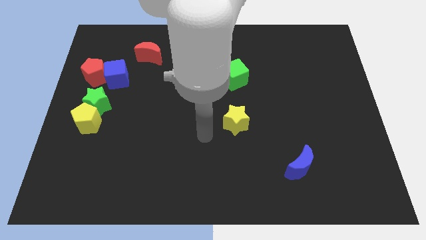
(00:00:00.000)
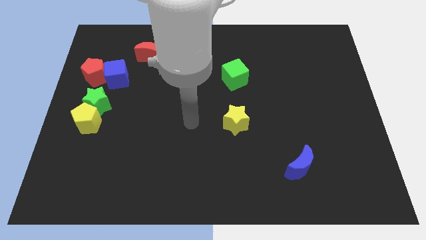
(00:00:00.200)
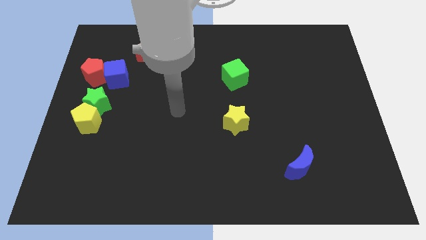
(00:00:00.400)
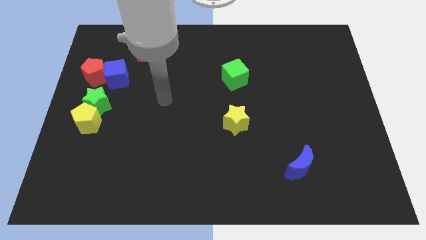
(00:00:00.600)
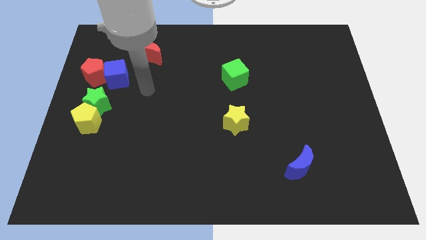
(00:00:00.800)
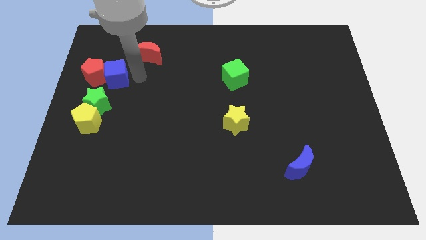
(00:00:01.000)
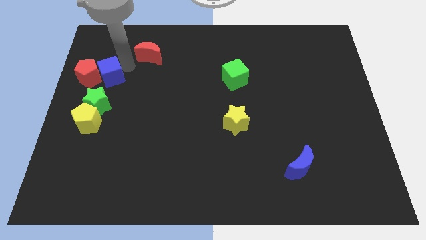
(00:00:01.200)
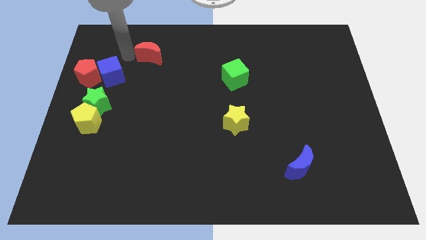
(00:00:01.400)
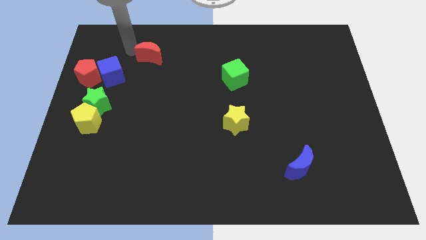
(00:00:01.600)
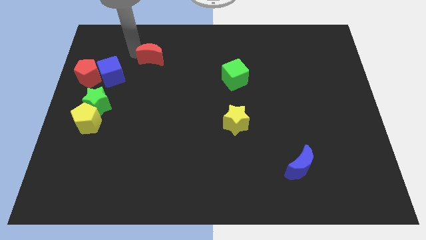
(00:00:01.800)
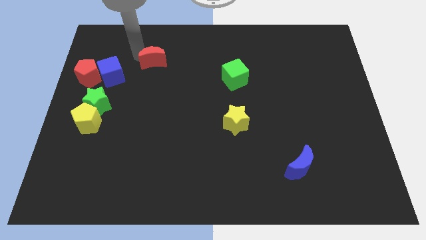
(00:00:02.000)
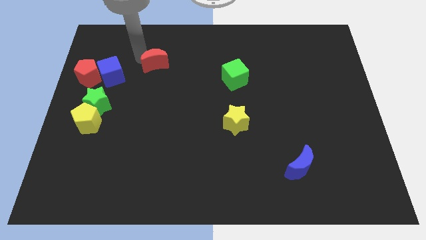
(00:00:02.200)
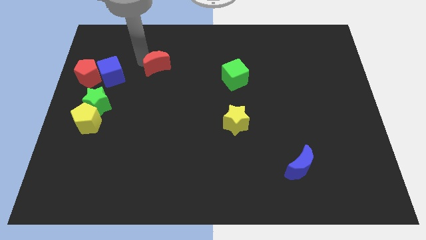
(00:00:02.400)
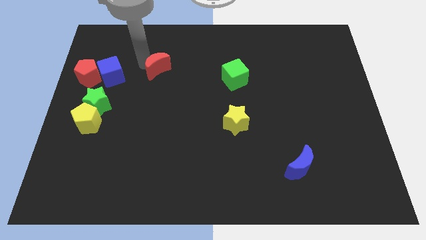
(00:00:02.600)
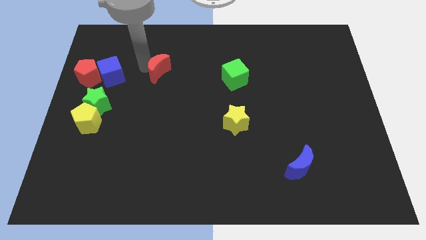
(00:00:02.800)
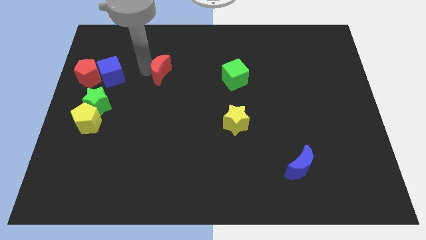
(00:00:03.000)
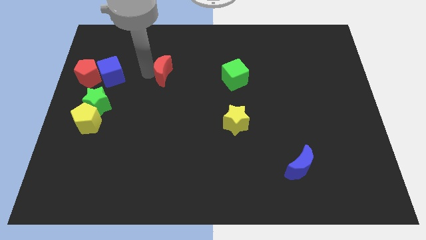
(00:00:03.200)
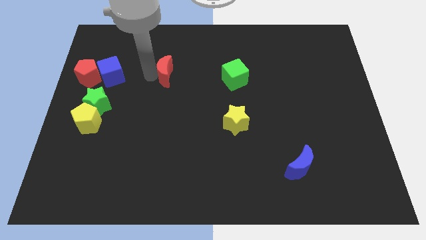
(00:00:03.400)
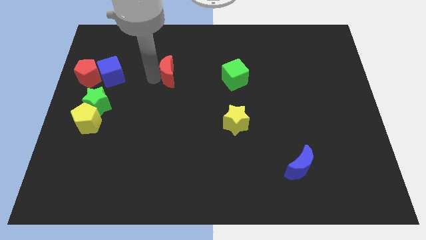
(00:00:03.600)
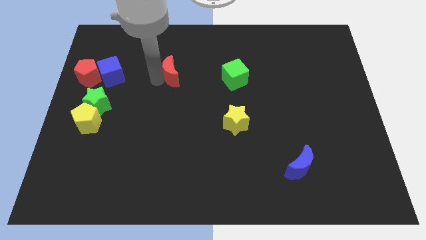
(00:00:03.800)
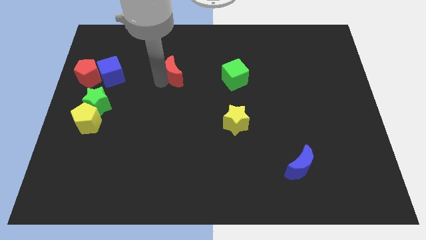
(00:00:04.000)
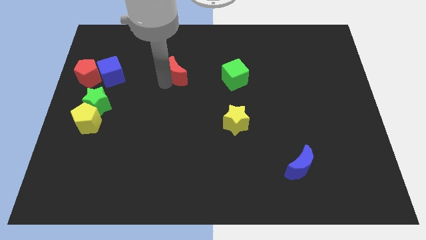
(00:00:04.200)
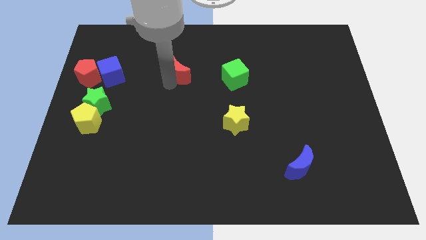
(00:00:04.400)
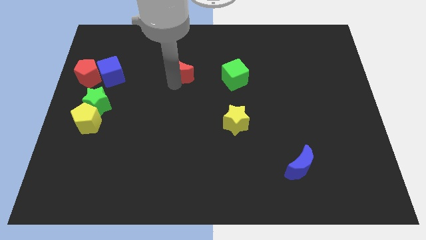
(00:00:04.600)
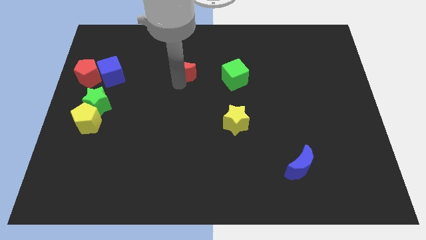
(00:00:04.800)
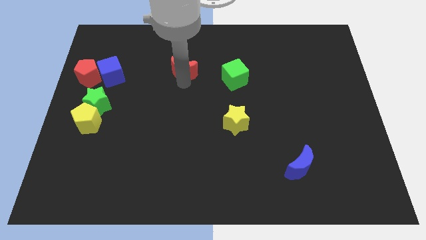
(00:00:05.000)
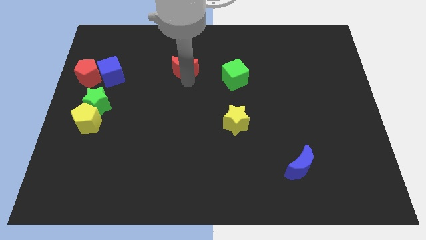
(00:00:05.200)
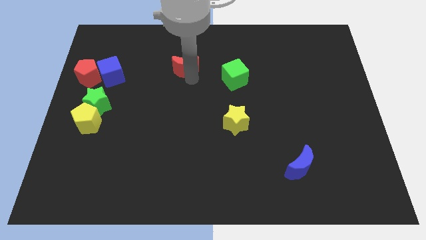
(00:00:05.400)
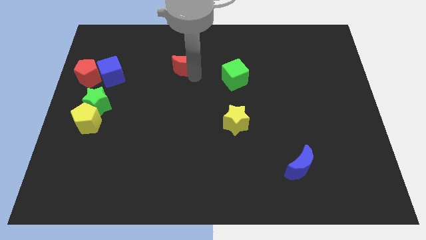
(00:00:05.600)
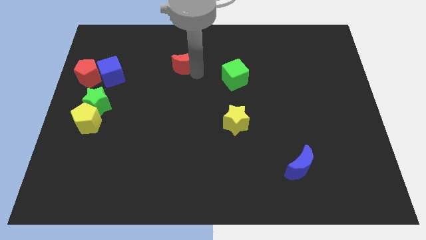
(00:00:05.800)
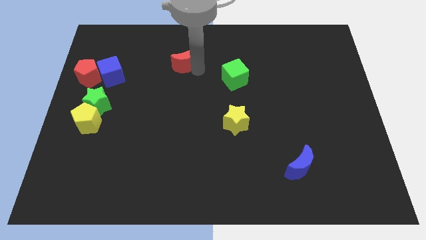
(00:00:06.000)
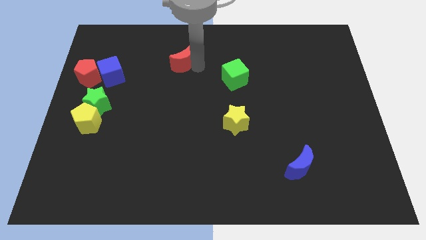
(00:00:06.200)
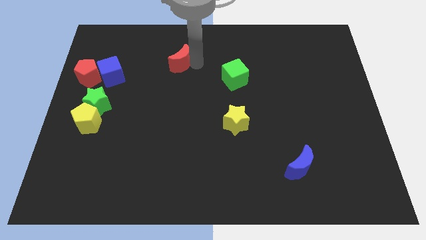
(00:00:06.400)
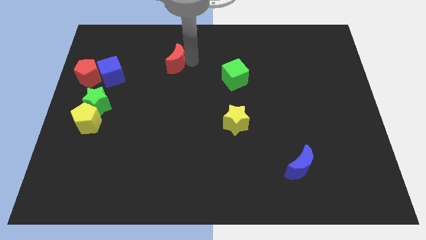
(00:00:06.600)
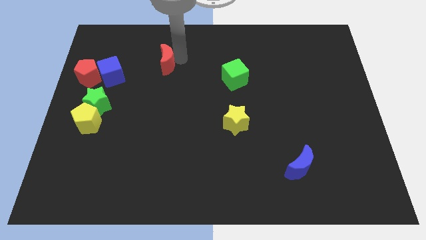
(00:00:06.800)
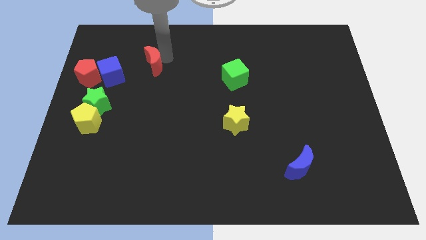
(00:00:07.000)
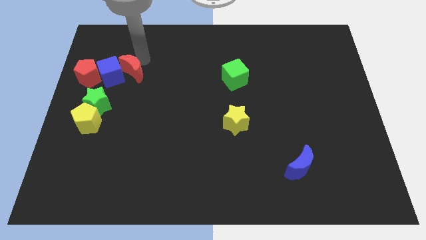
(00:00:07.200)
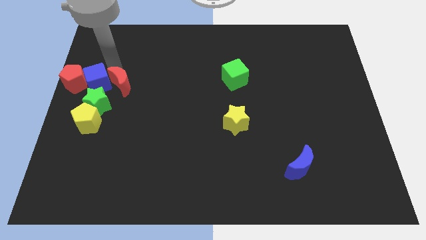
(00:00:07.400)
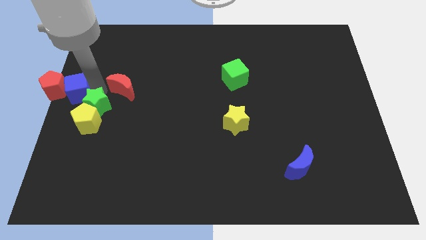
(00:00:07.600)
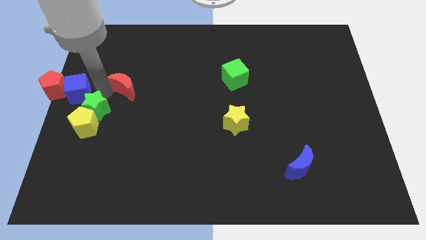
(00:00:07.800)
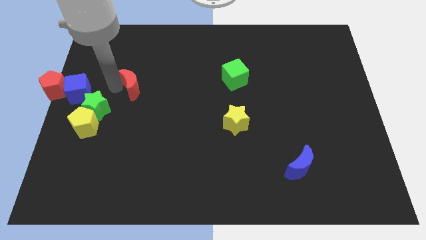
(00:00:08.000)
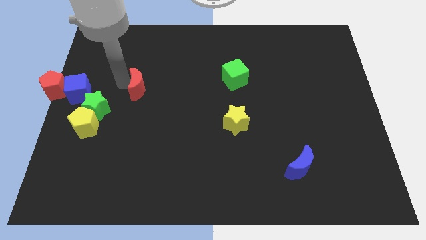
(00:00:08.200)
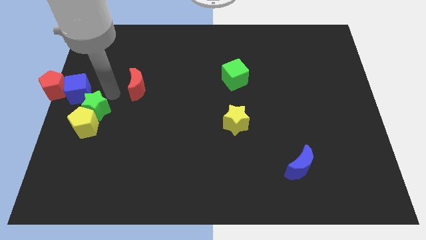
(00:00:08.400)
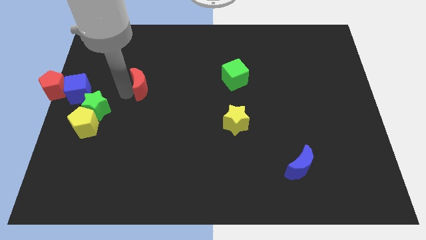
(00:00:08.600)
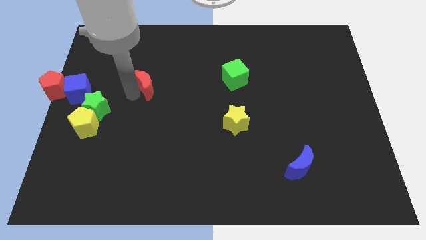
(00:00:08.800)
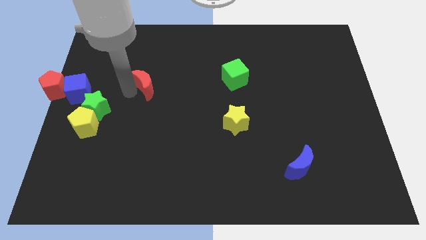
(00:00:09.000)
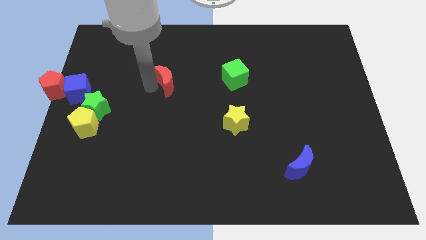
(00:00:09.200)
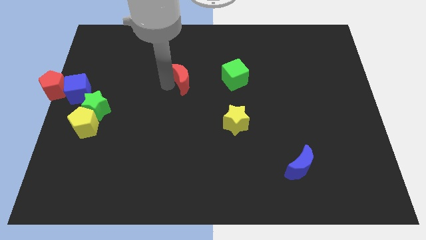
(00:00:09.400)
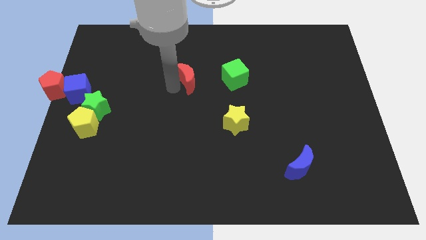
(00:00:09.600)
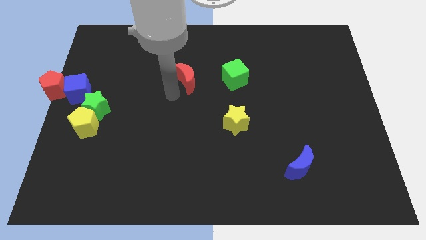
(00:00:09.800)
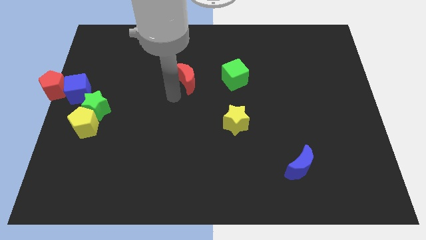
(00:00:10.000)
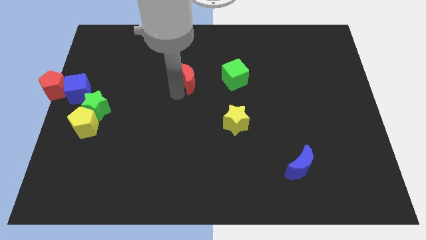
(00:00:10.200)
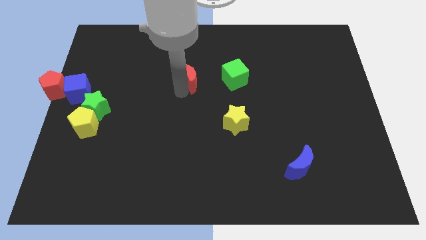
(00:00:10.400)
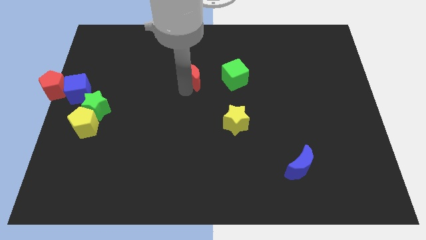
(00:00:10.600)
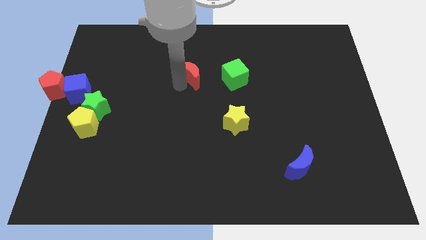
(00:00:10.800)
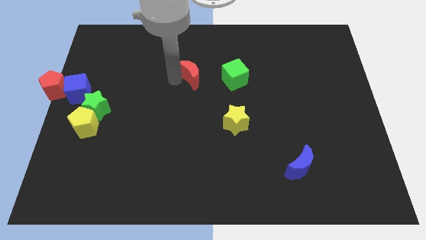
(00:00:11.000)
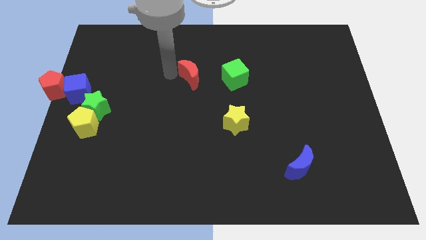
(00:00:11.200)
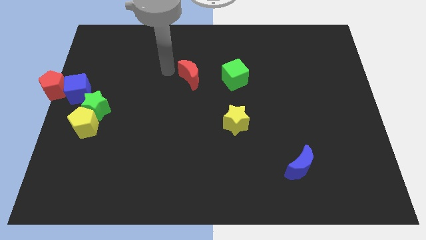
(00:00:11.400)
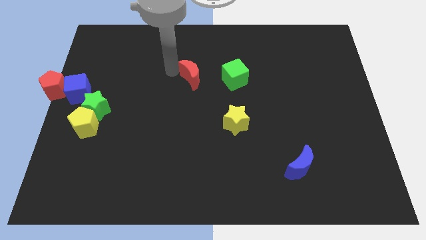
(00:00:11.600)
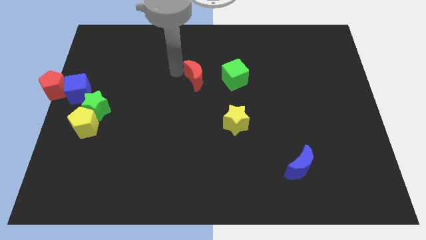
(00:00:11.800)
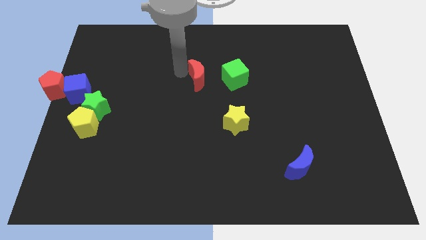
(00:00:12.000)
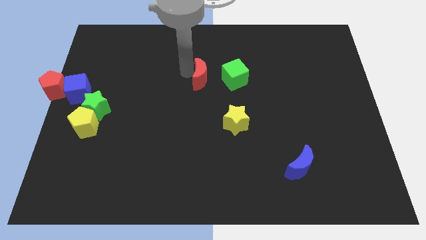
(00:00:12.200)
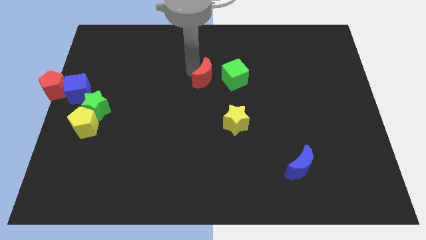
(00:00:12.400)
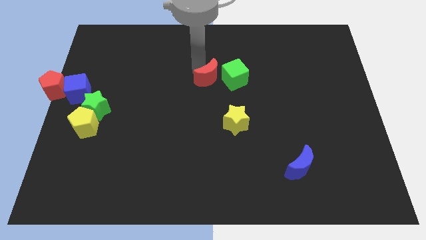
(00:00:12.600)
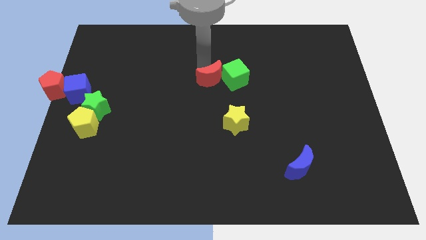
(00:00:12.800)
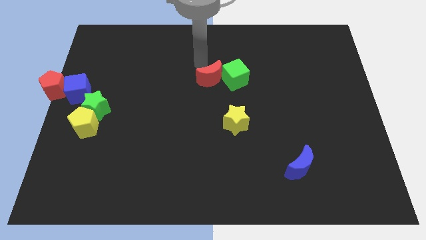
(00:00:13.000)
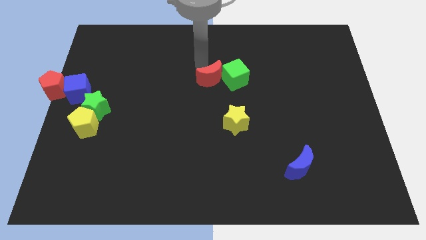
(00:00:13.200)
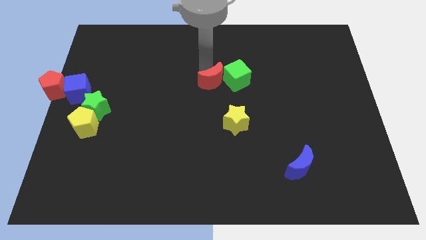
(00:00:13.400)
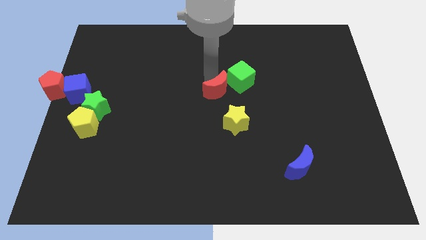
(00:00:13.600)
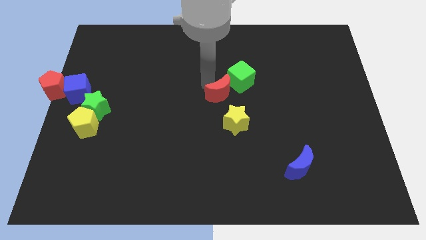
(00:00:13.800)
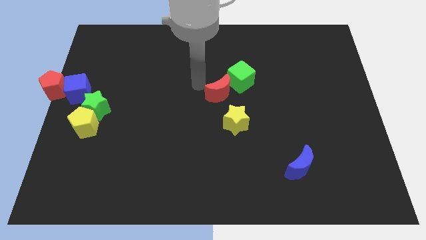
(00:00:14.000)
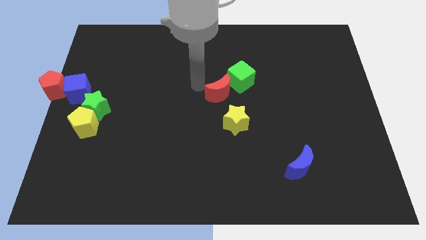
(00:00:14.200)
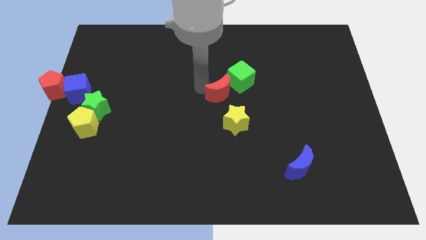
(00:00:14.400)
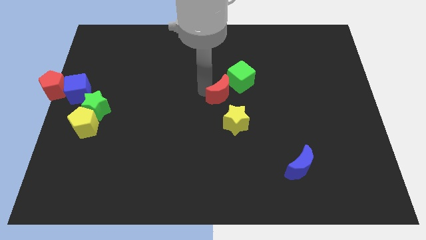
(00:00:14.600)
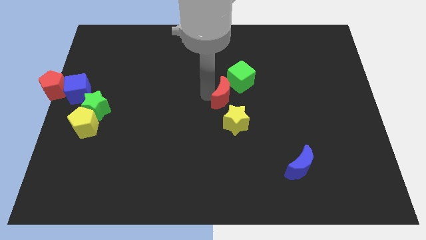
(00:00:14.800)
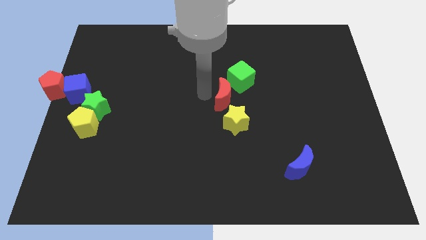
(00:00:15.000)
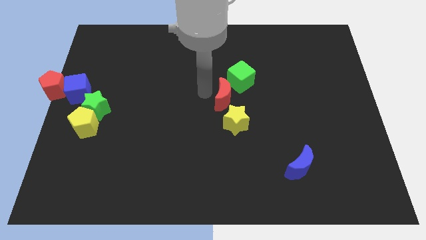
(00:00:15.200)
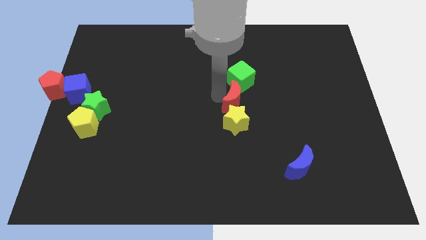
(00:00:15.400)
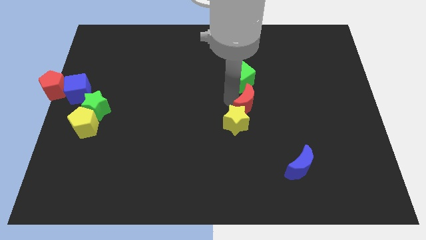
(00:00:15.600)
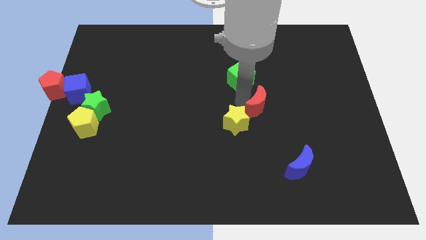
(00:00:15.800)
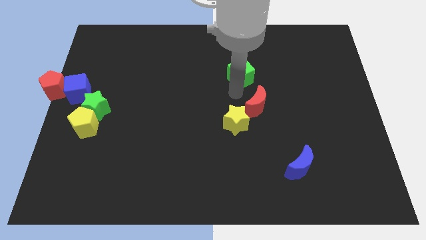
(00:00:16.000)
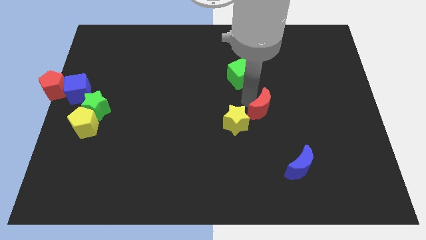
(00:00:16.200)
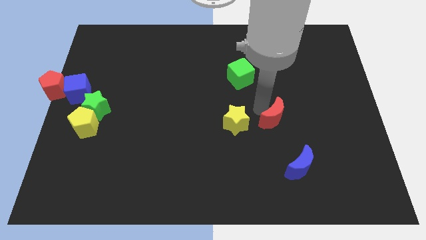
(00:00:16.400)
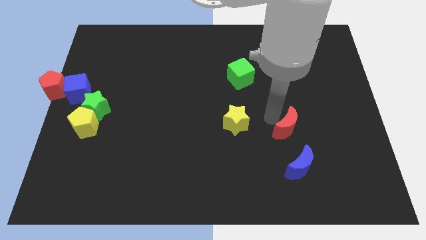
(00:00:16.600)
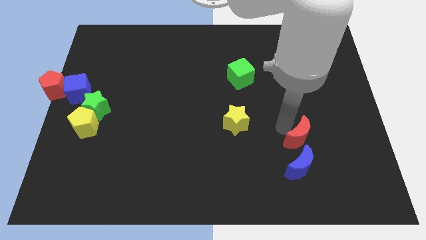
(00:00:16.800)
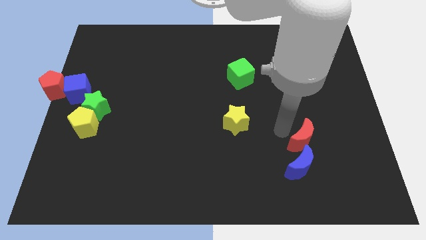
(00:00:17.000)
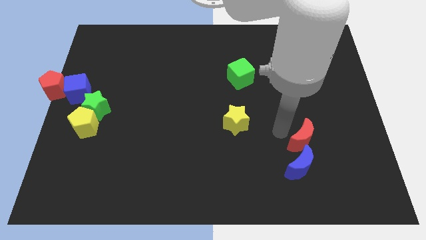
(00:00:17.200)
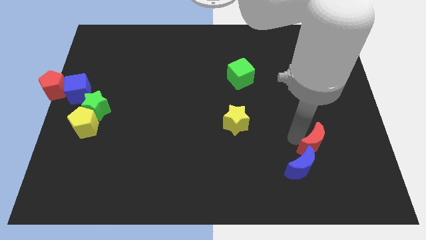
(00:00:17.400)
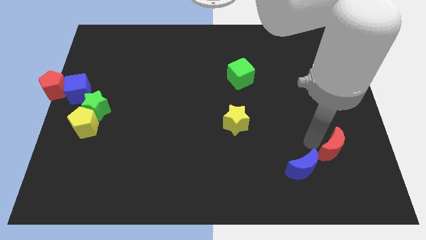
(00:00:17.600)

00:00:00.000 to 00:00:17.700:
put the red moon to the right of the blue moon
